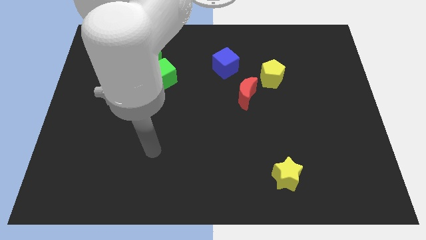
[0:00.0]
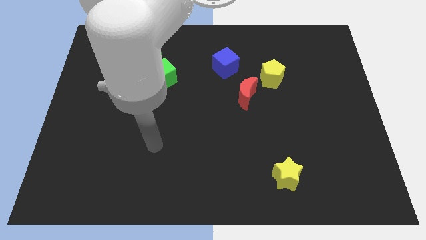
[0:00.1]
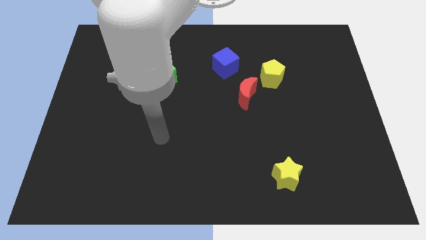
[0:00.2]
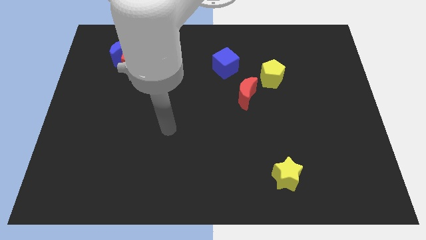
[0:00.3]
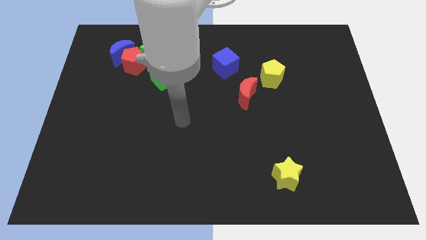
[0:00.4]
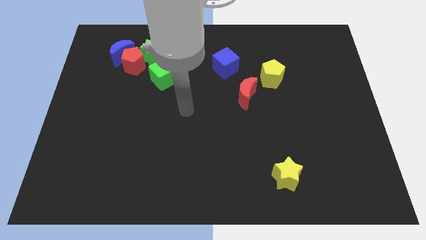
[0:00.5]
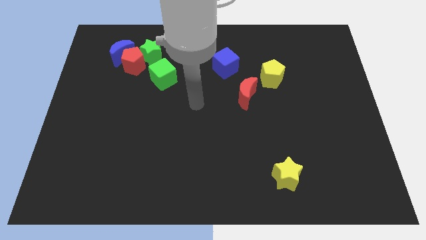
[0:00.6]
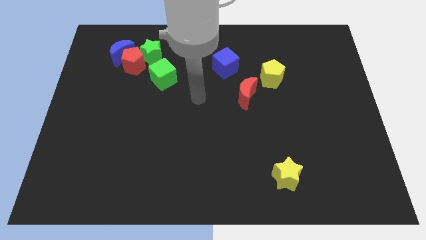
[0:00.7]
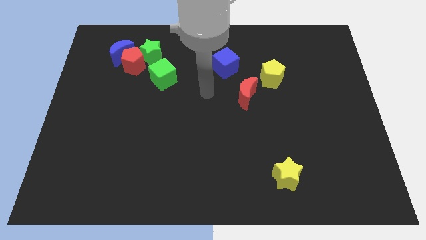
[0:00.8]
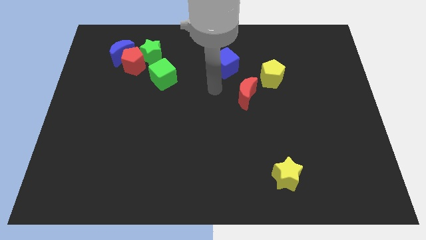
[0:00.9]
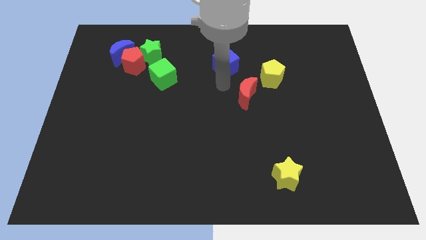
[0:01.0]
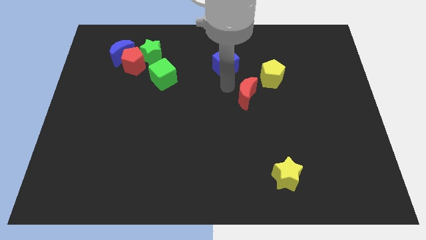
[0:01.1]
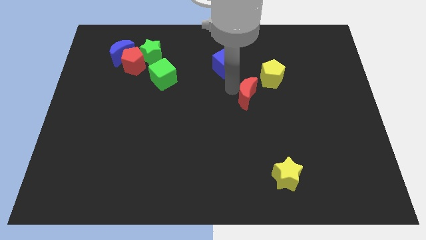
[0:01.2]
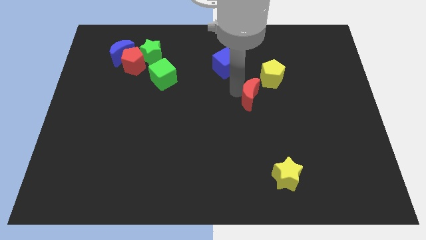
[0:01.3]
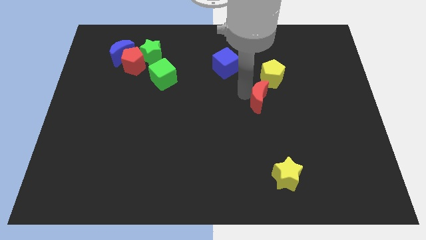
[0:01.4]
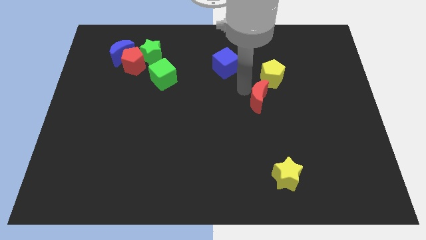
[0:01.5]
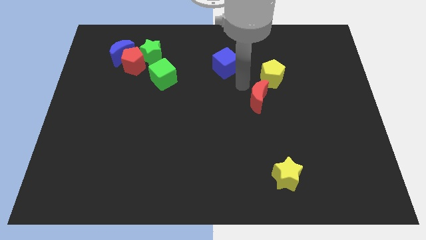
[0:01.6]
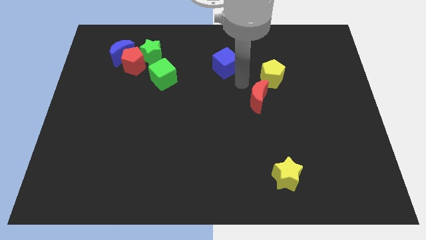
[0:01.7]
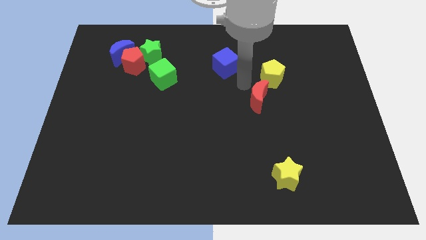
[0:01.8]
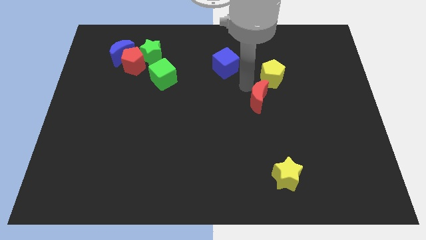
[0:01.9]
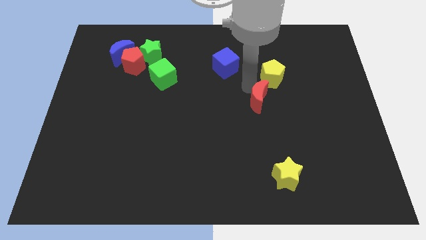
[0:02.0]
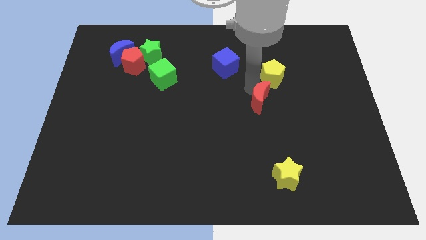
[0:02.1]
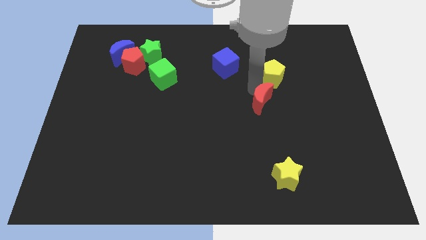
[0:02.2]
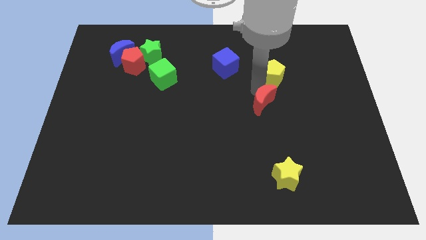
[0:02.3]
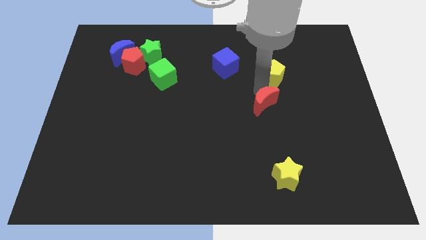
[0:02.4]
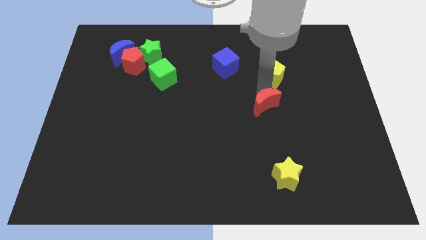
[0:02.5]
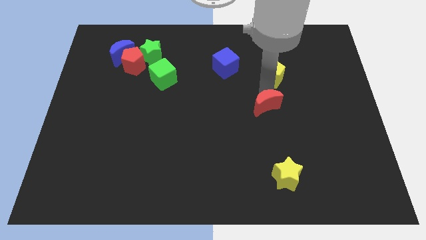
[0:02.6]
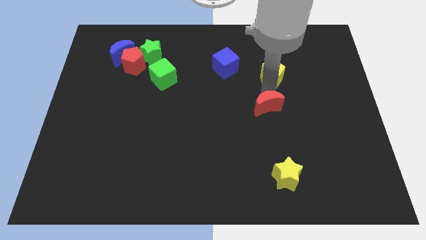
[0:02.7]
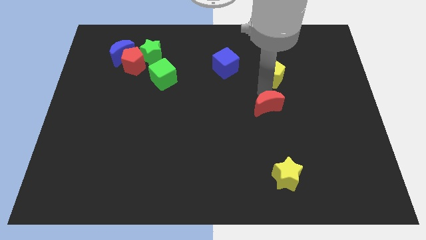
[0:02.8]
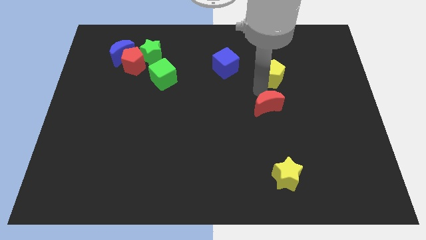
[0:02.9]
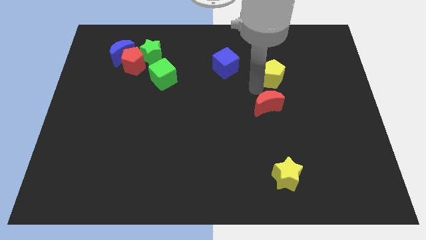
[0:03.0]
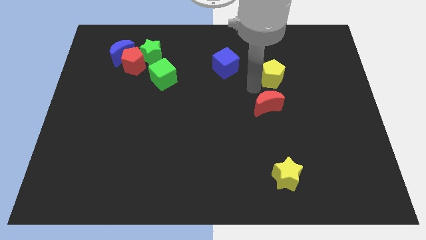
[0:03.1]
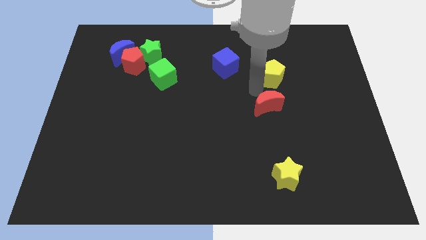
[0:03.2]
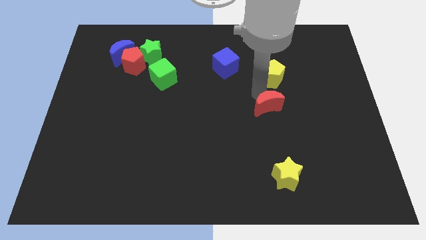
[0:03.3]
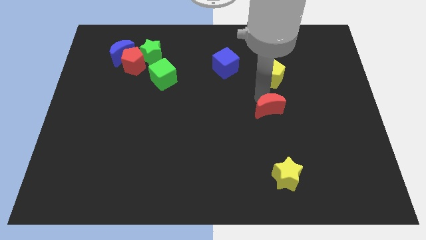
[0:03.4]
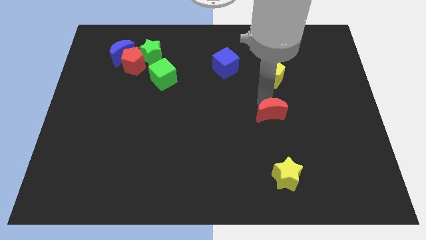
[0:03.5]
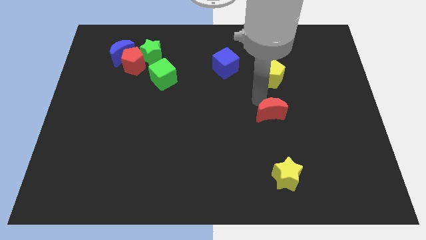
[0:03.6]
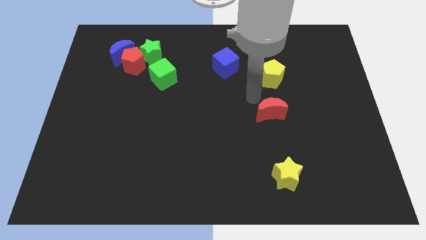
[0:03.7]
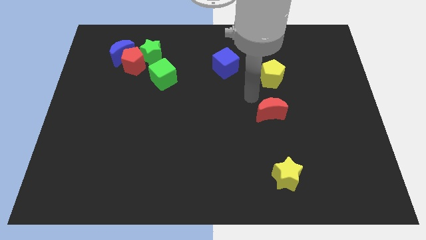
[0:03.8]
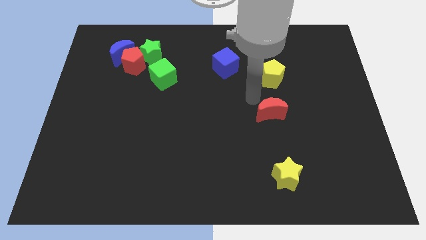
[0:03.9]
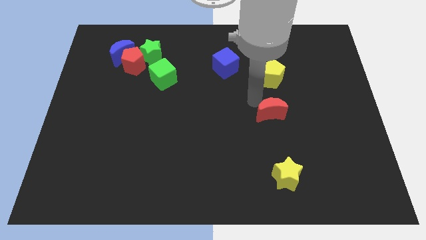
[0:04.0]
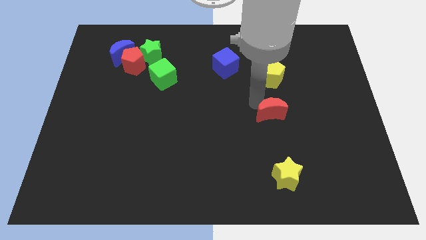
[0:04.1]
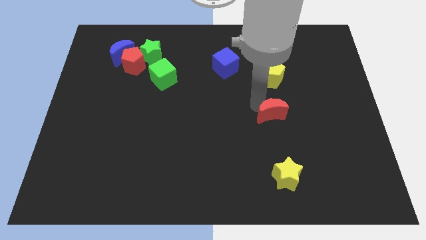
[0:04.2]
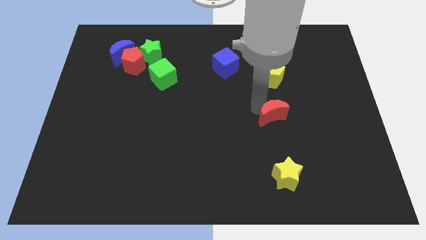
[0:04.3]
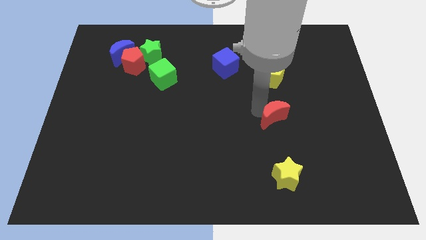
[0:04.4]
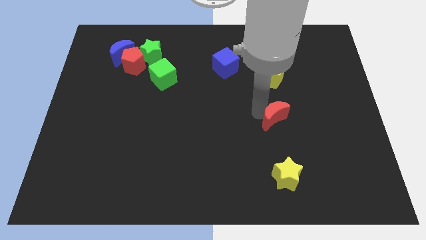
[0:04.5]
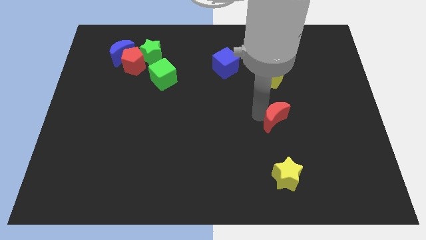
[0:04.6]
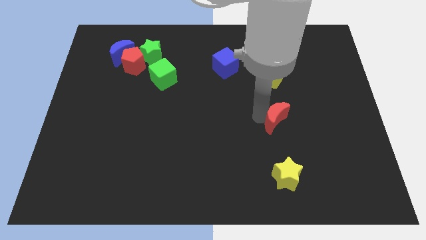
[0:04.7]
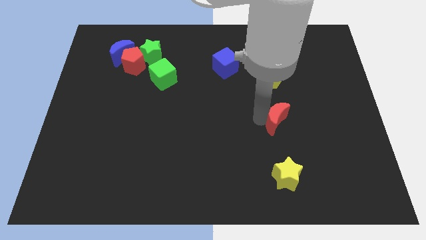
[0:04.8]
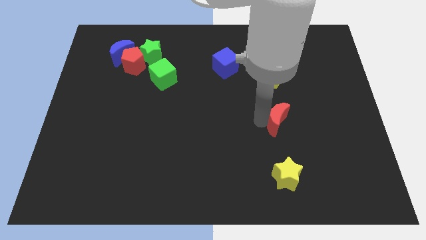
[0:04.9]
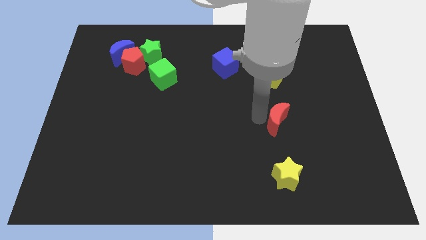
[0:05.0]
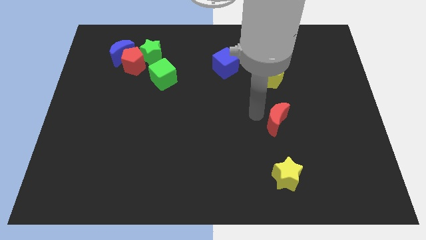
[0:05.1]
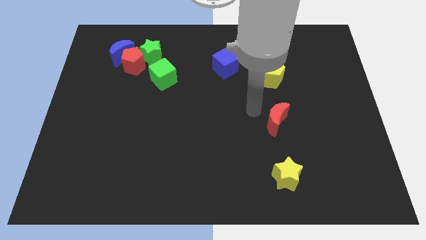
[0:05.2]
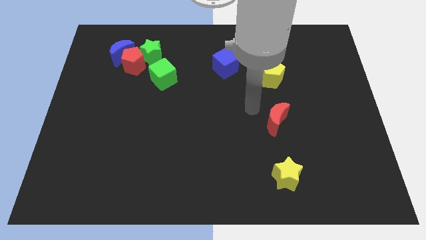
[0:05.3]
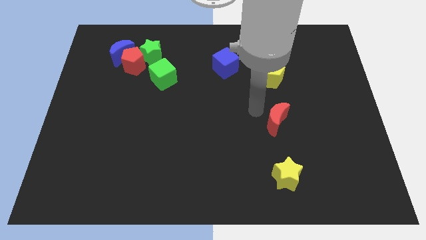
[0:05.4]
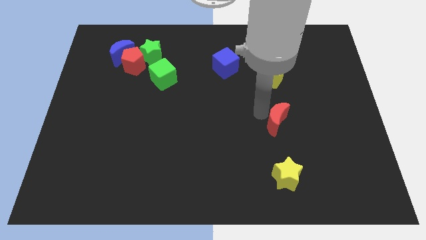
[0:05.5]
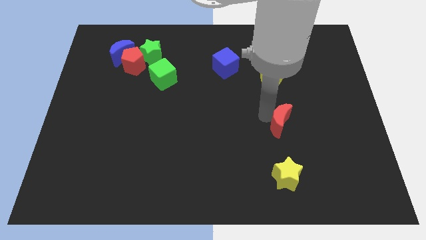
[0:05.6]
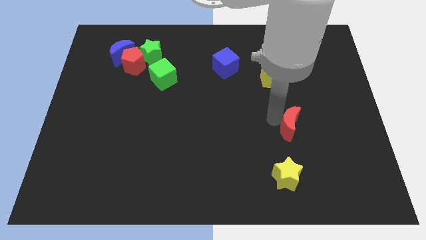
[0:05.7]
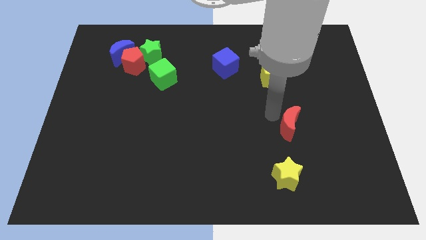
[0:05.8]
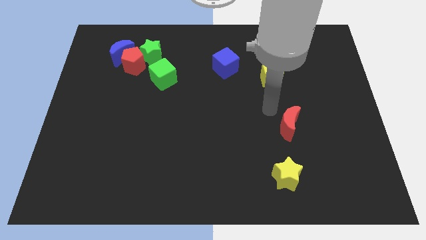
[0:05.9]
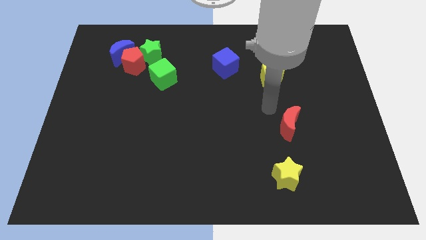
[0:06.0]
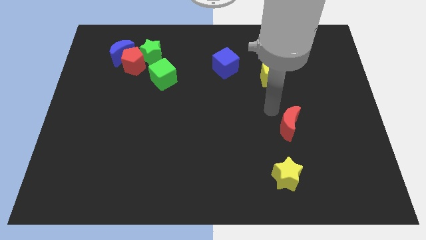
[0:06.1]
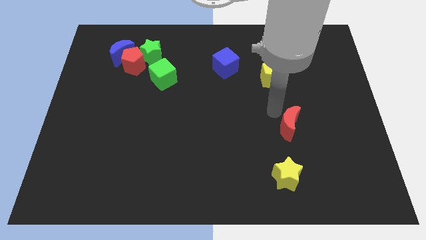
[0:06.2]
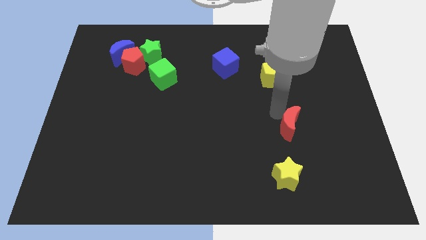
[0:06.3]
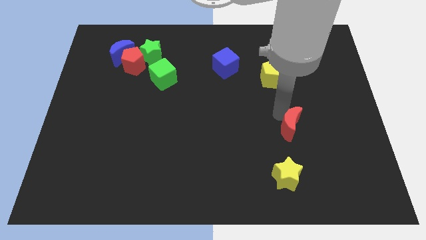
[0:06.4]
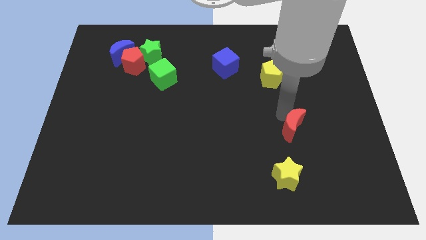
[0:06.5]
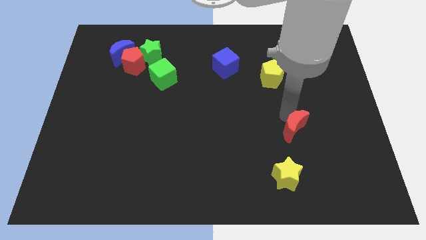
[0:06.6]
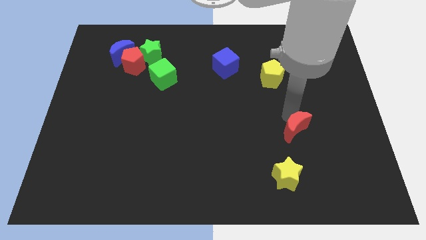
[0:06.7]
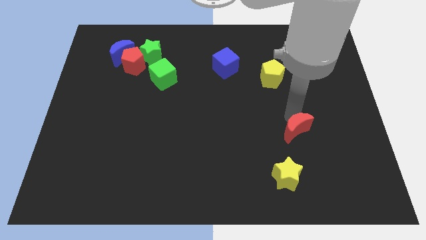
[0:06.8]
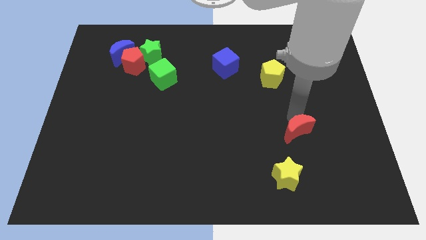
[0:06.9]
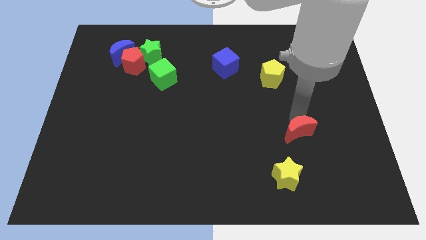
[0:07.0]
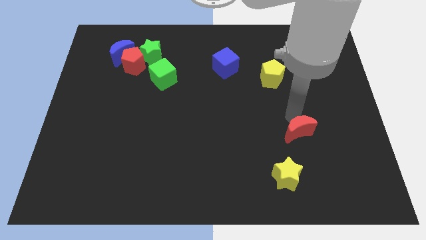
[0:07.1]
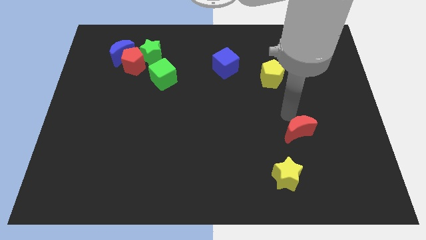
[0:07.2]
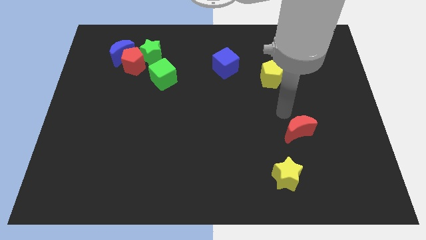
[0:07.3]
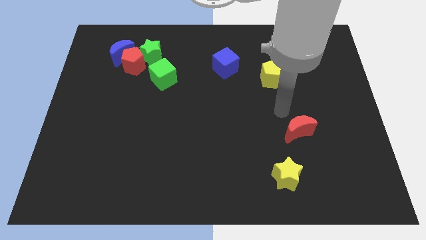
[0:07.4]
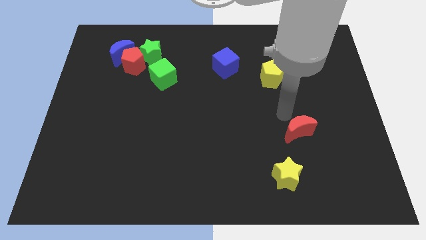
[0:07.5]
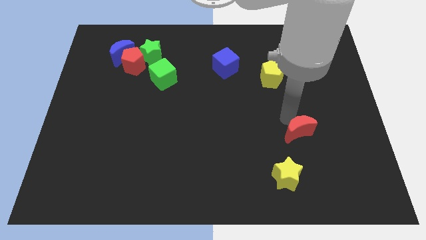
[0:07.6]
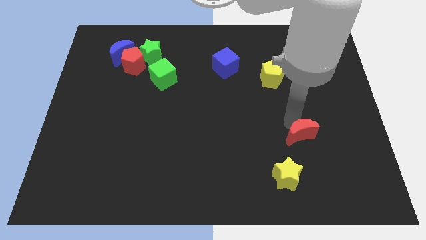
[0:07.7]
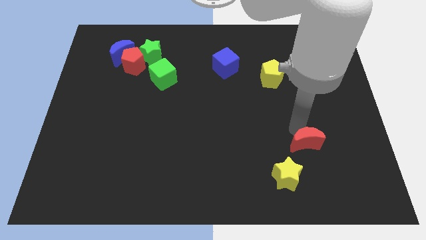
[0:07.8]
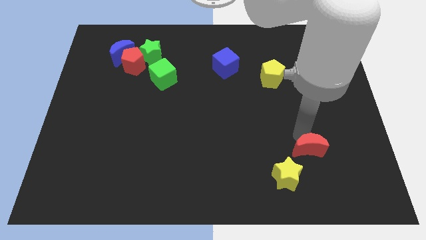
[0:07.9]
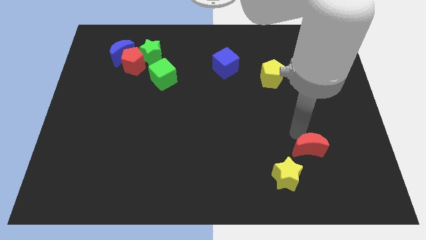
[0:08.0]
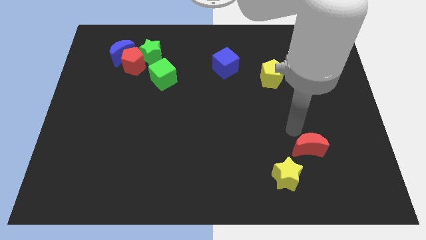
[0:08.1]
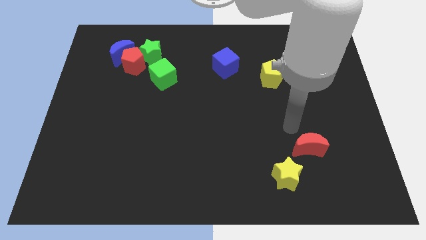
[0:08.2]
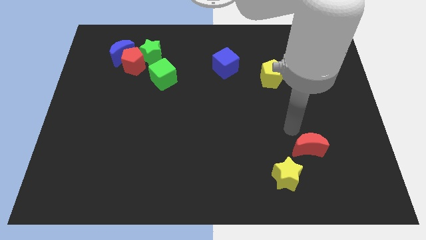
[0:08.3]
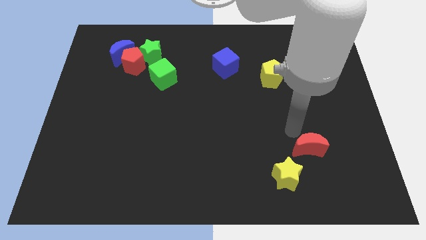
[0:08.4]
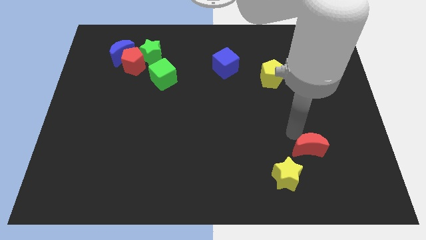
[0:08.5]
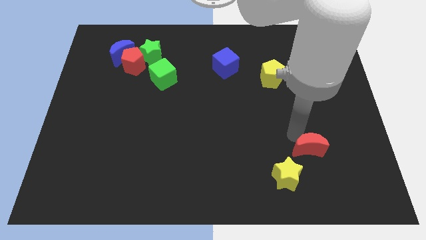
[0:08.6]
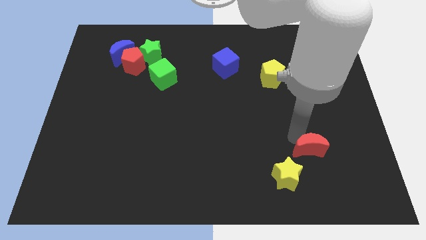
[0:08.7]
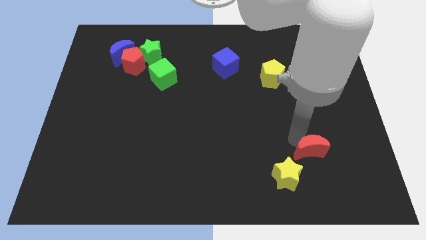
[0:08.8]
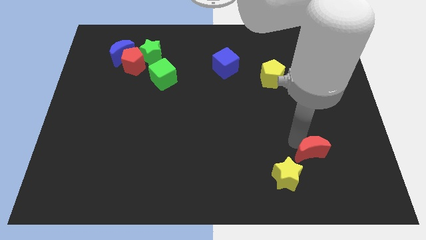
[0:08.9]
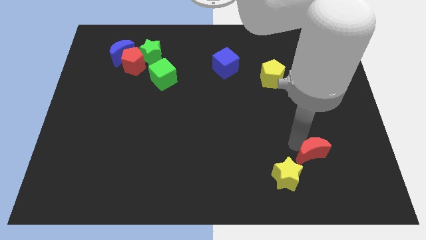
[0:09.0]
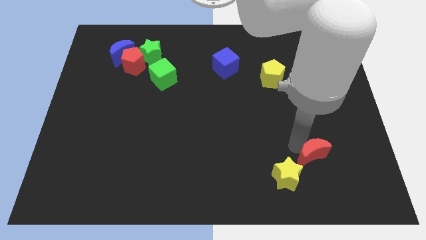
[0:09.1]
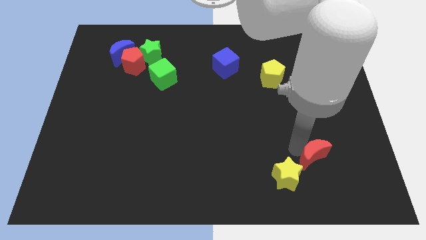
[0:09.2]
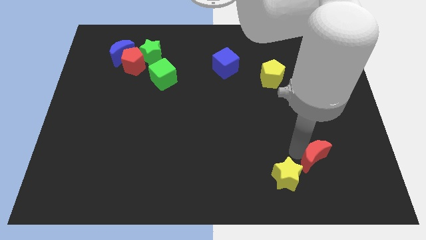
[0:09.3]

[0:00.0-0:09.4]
slide the red moon to the right of the yellow star
